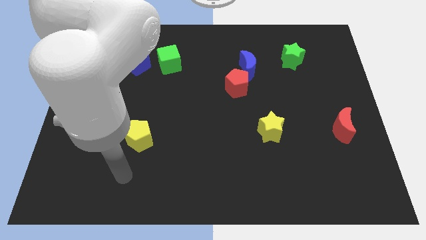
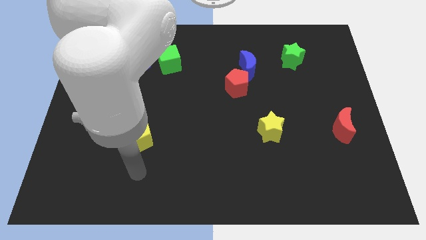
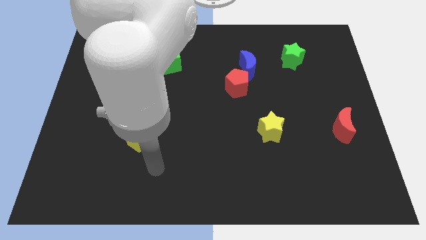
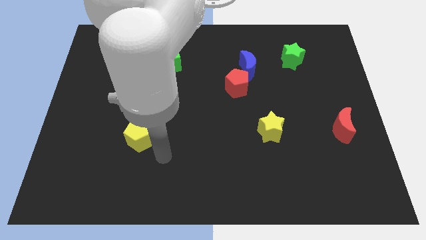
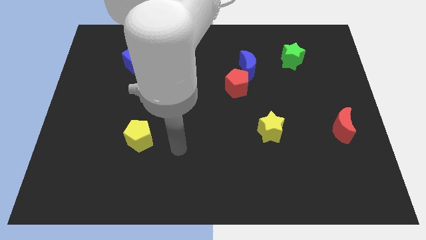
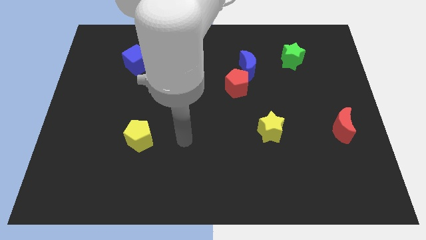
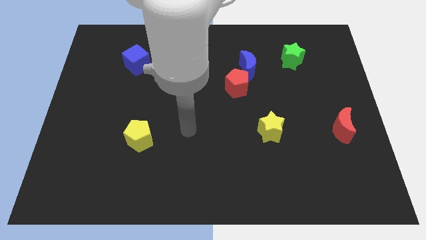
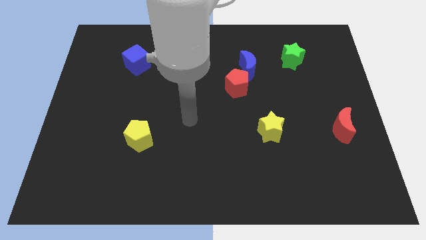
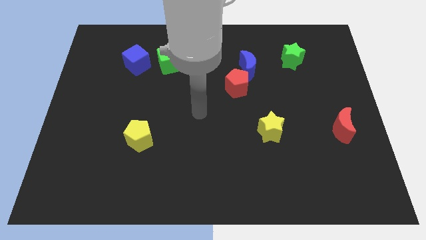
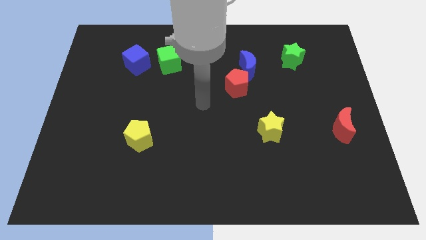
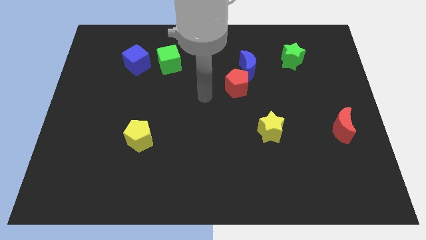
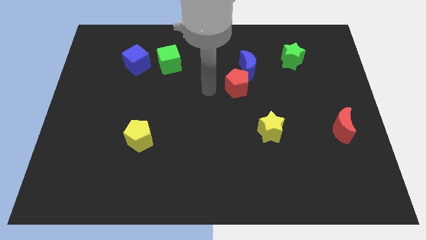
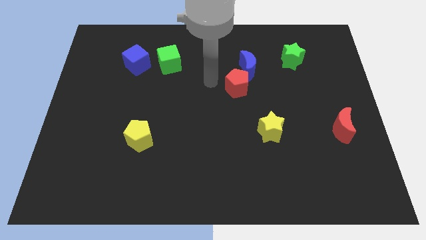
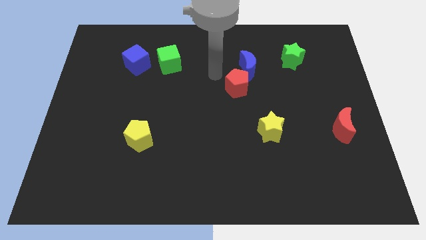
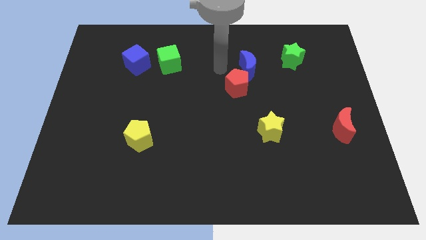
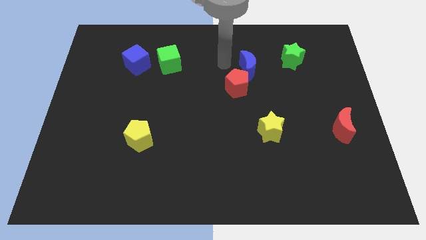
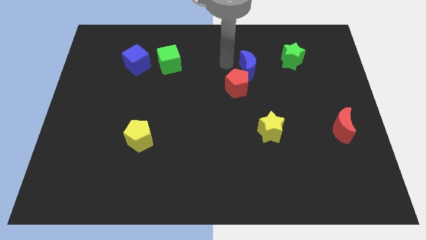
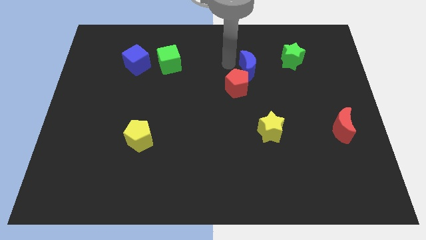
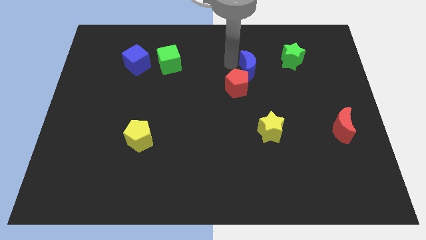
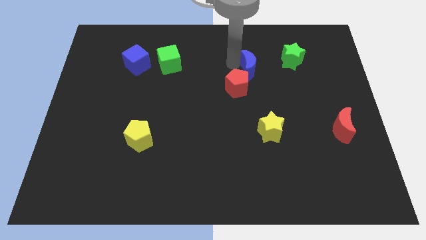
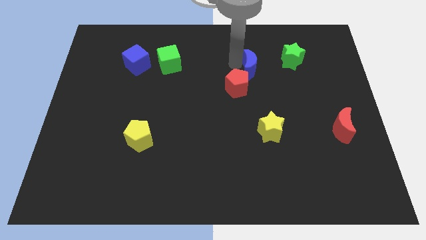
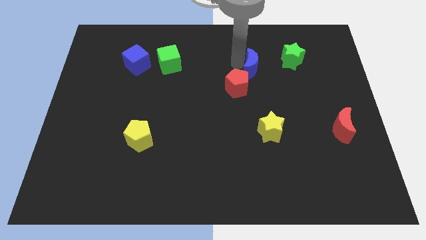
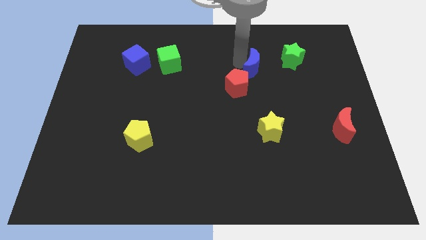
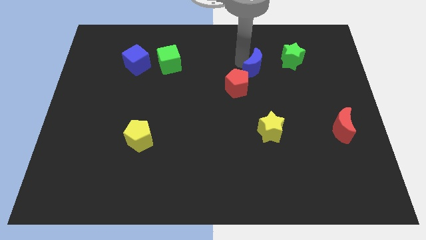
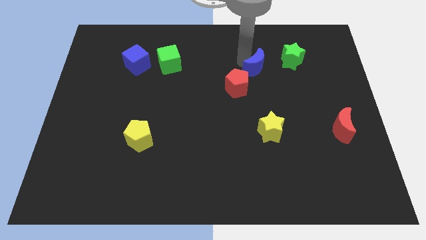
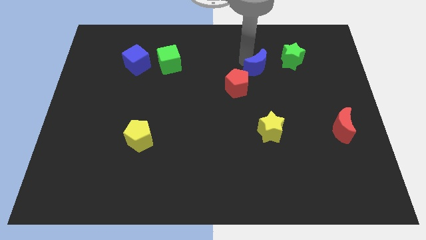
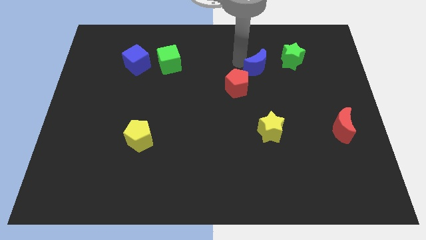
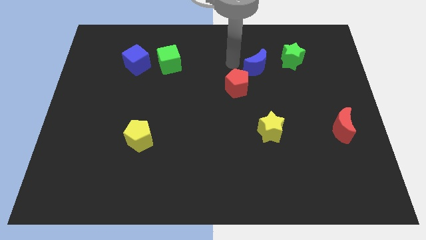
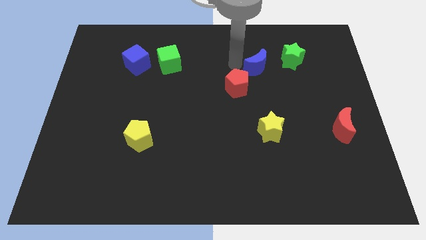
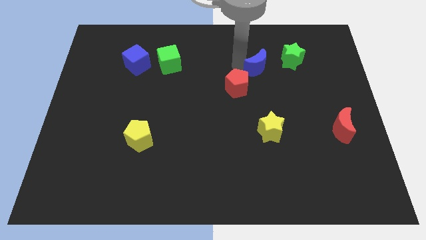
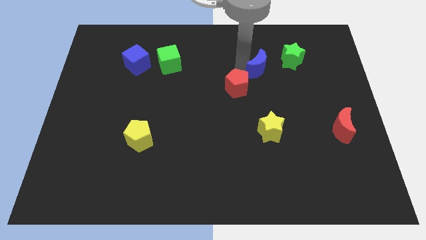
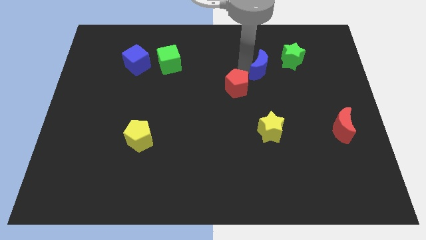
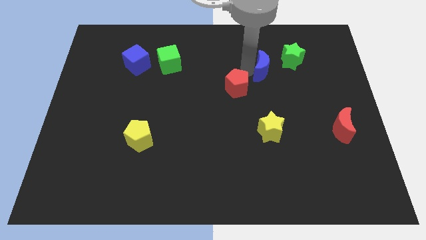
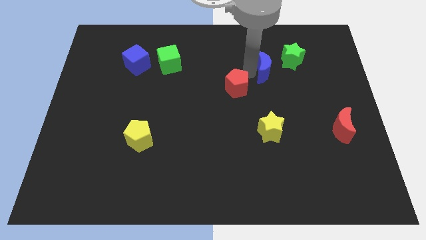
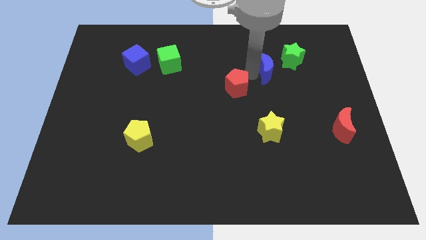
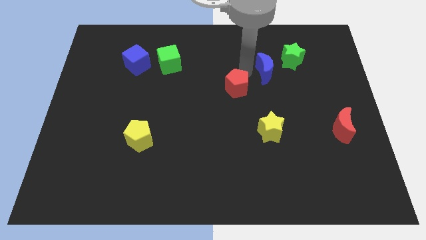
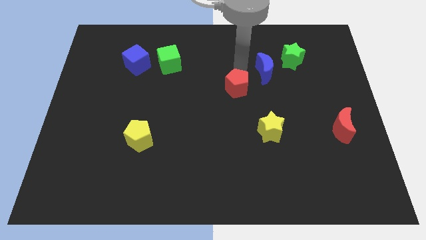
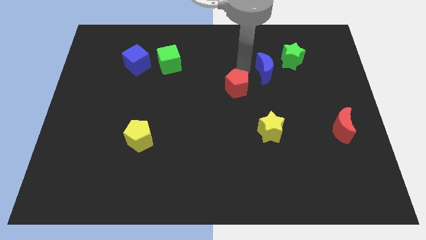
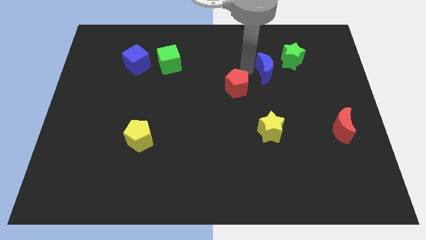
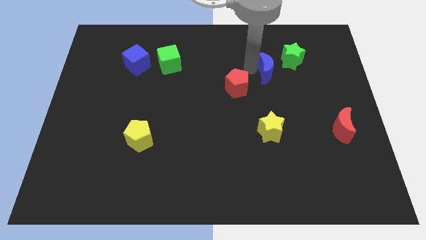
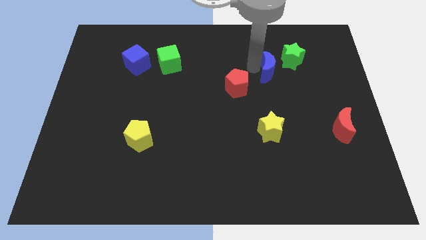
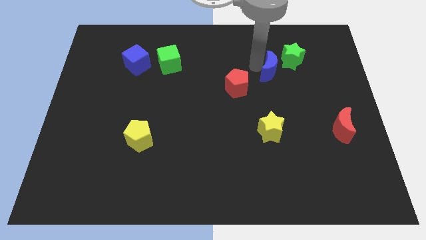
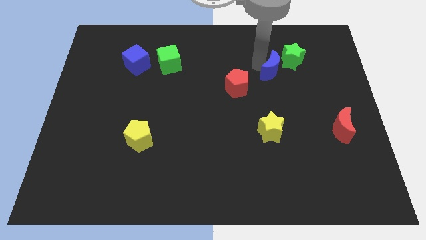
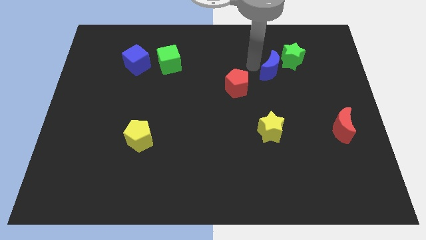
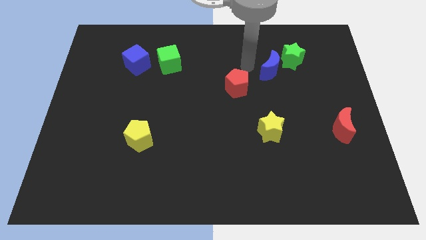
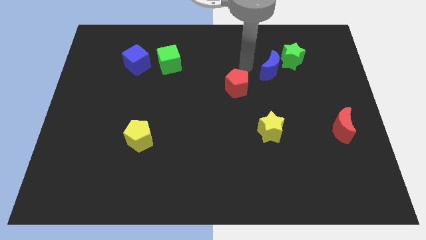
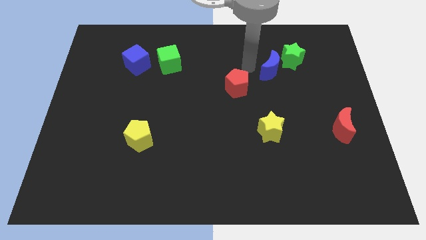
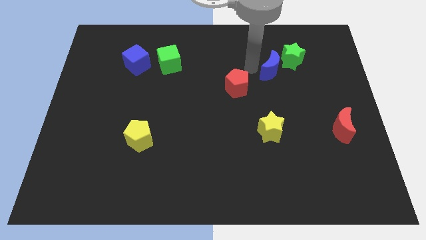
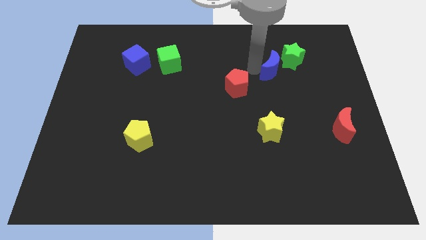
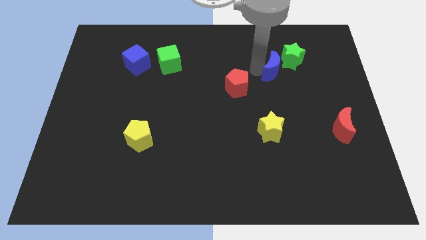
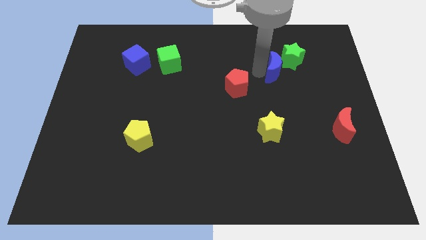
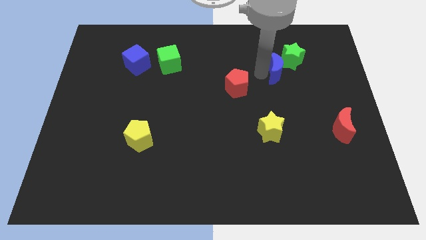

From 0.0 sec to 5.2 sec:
push the blue moon right a little

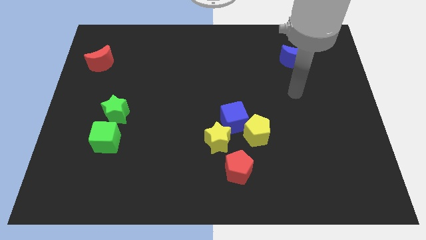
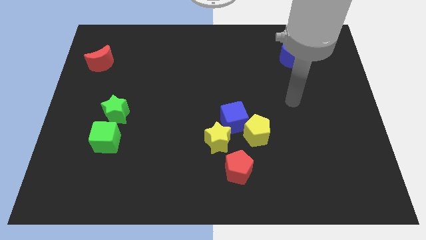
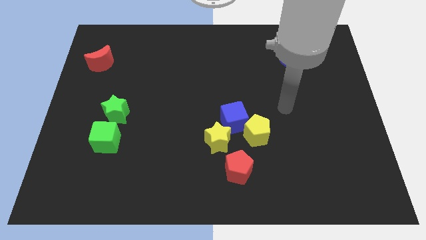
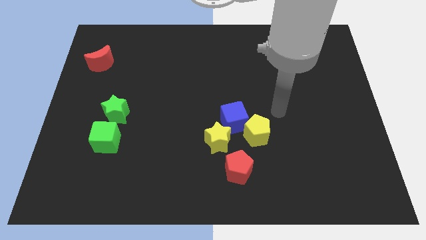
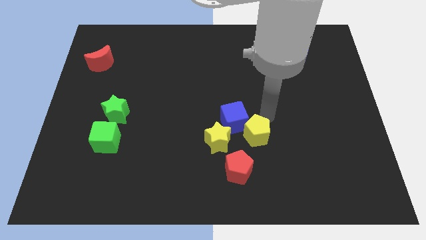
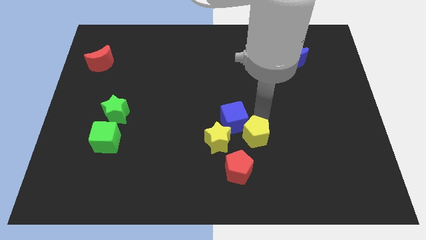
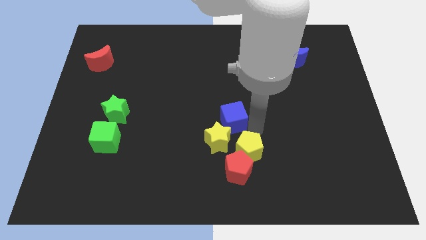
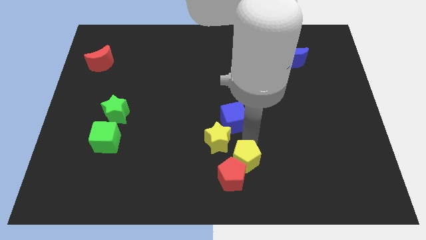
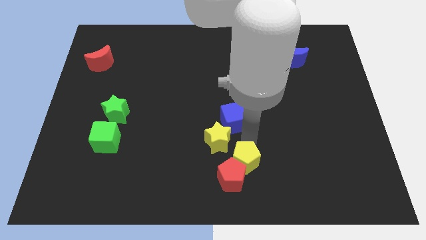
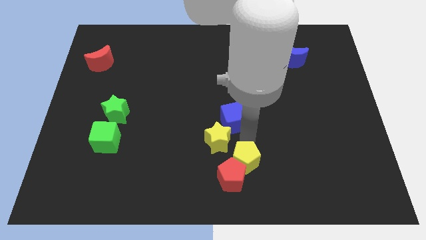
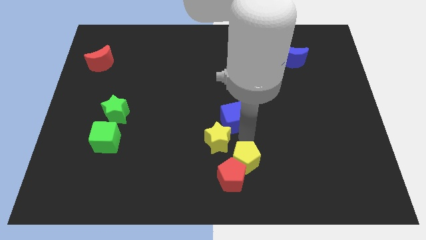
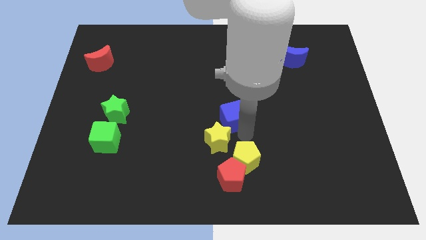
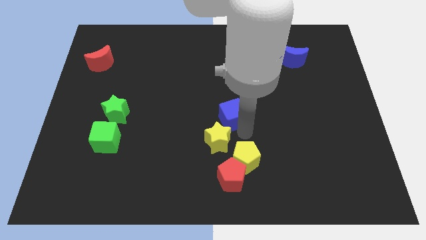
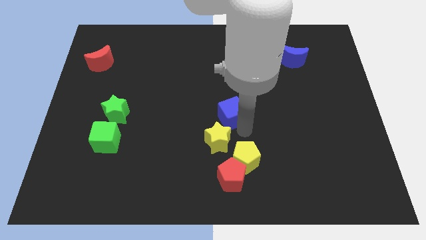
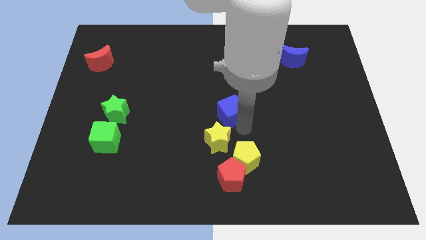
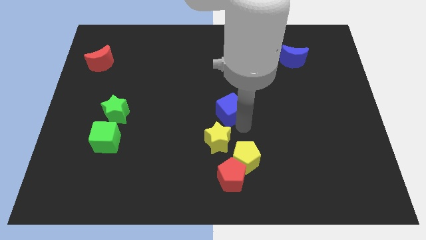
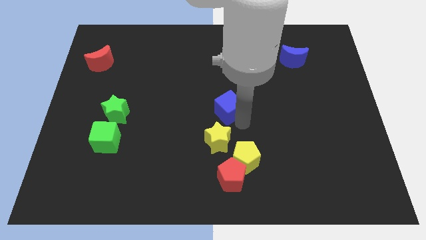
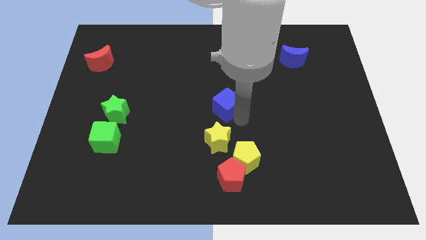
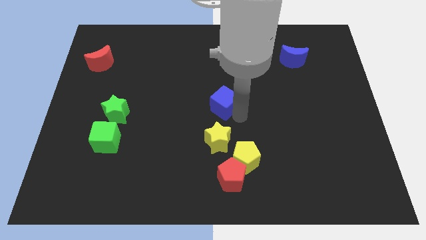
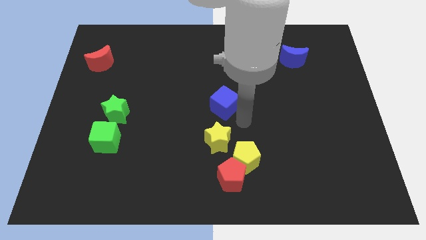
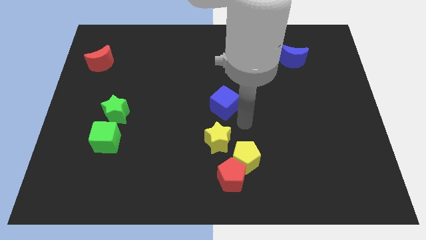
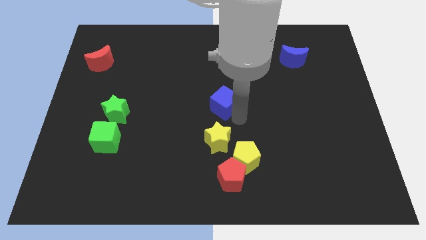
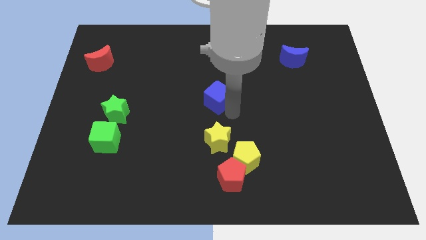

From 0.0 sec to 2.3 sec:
move the blue cube upwards and left slightly

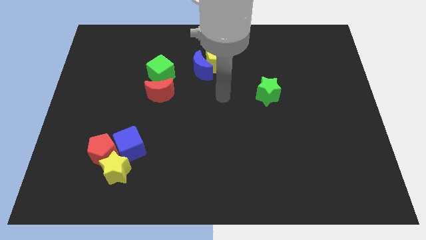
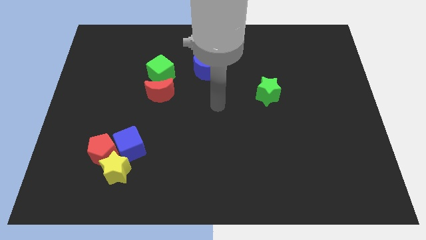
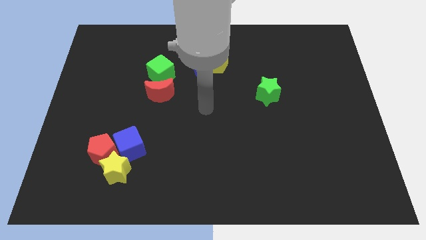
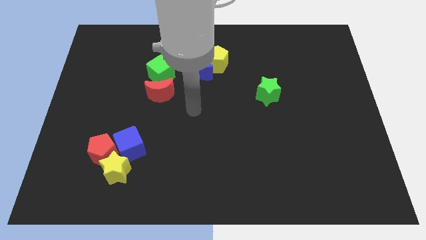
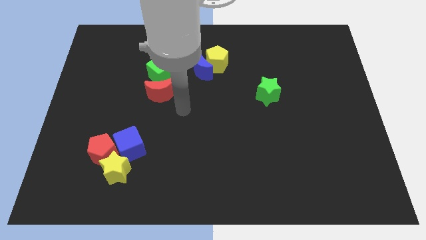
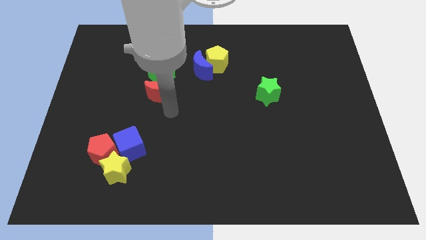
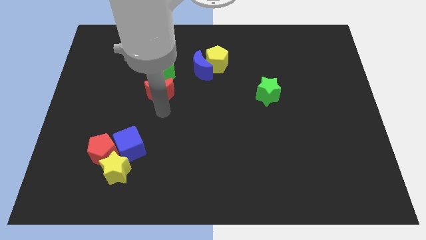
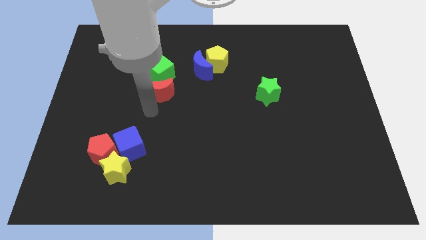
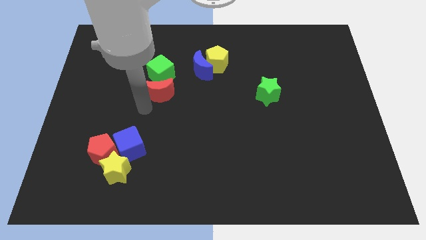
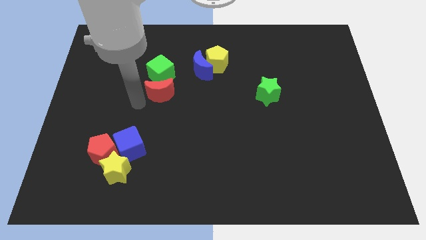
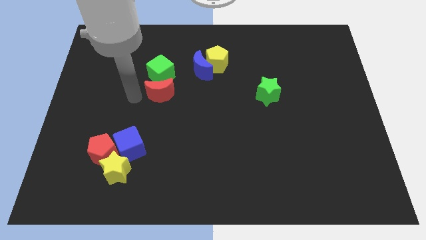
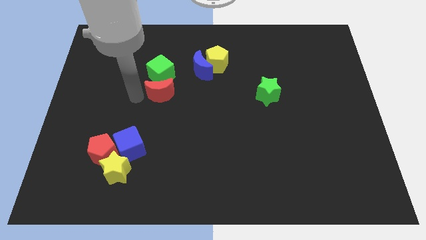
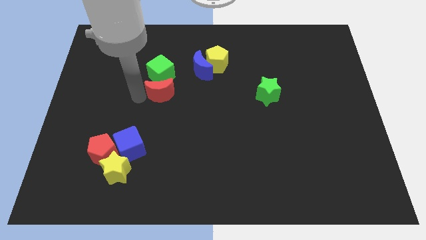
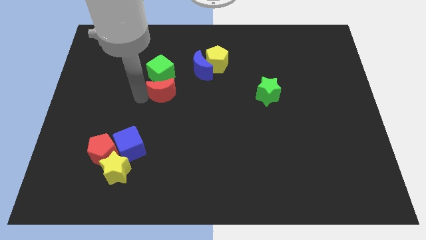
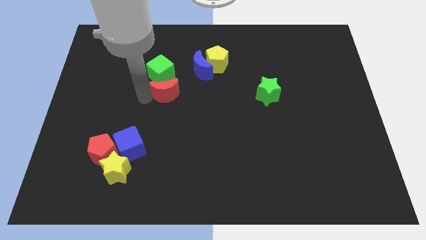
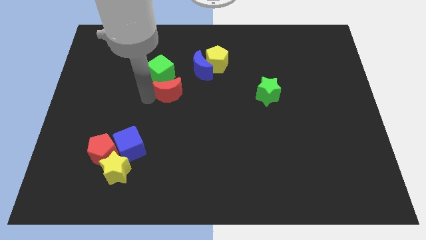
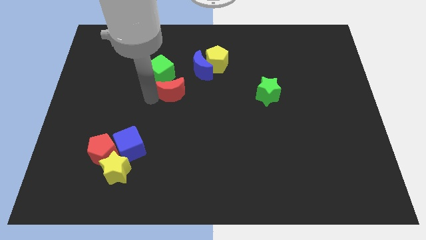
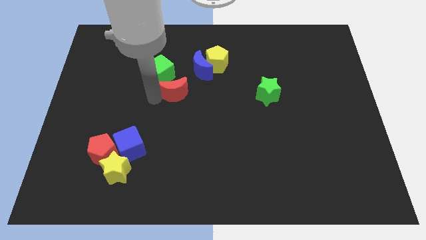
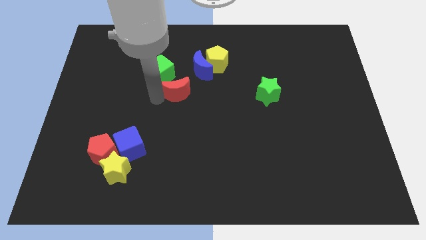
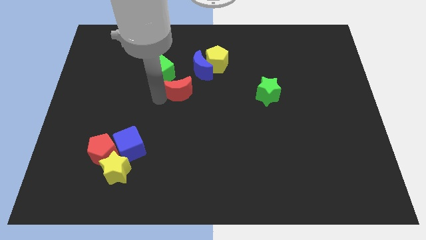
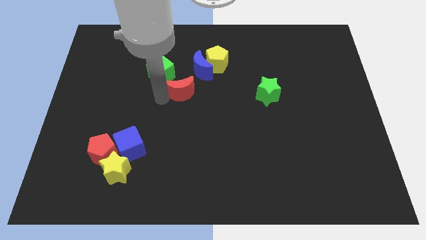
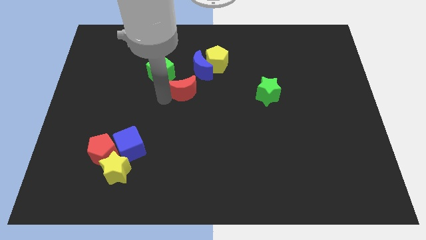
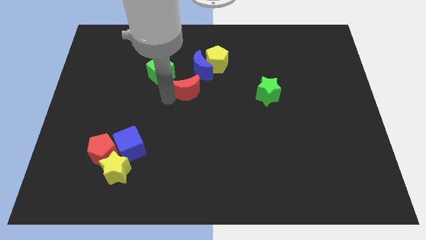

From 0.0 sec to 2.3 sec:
slightly slide the red moon to the right
